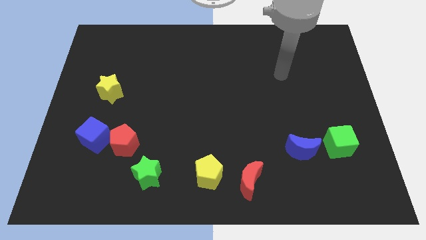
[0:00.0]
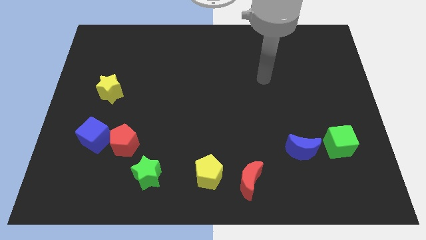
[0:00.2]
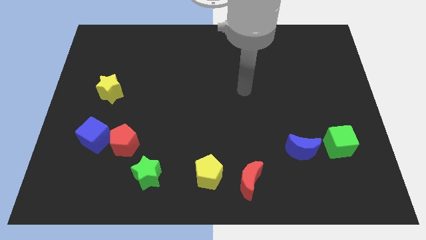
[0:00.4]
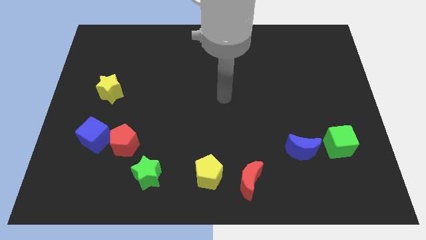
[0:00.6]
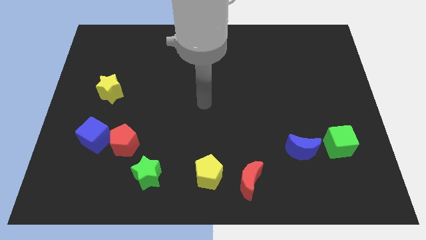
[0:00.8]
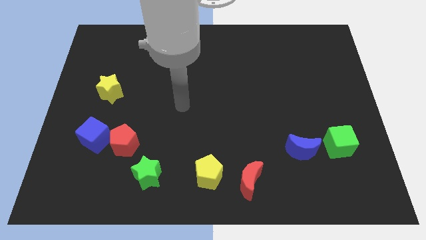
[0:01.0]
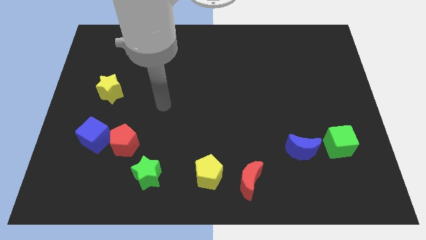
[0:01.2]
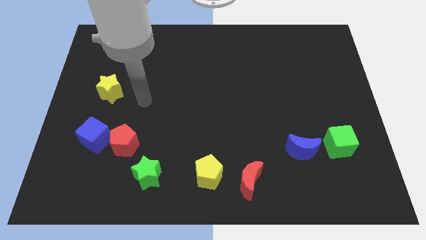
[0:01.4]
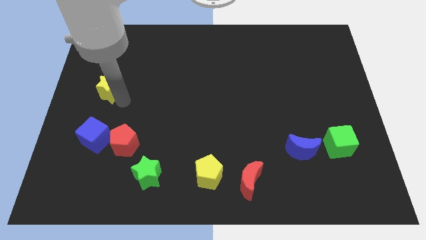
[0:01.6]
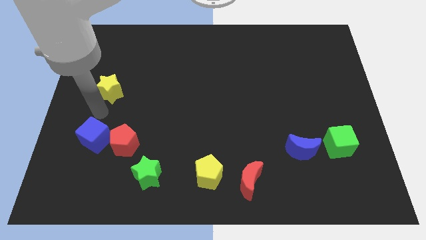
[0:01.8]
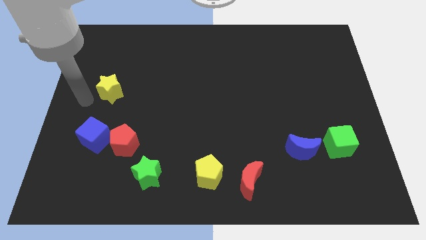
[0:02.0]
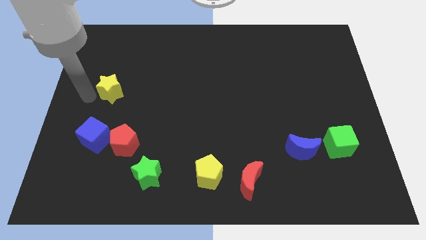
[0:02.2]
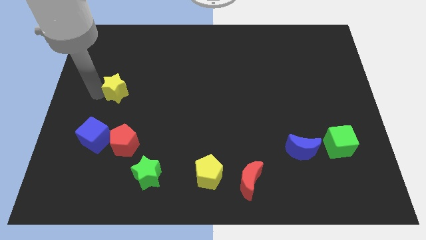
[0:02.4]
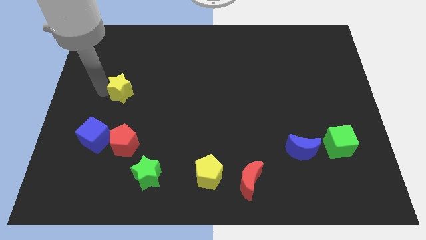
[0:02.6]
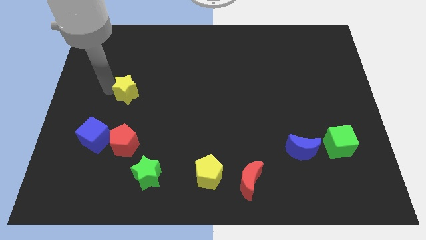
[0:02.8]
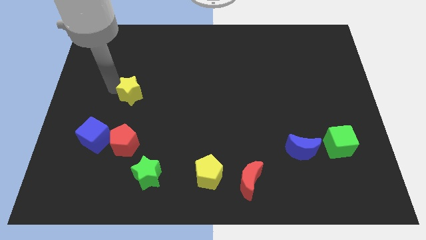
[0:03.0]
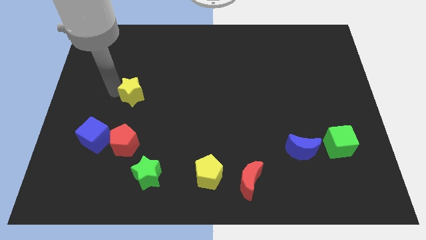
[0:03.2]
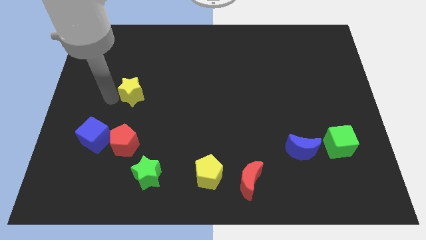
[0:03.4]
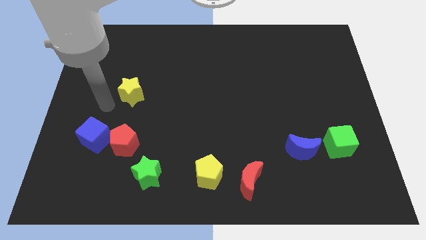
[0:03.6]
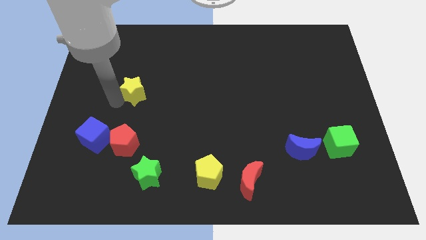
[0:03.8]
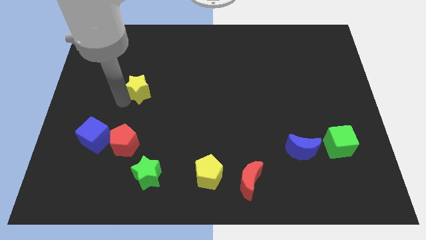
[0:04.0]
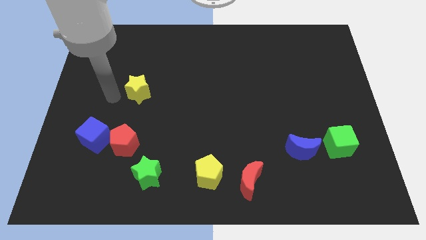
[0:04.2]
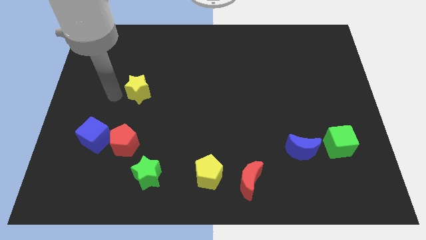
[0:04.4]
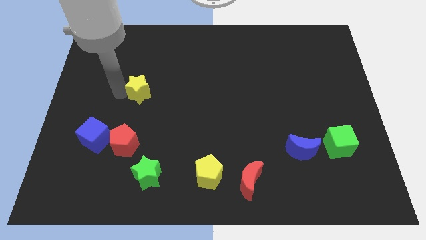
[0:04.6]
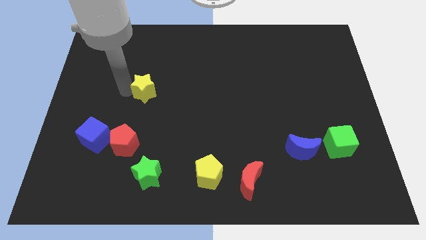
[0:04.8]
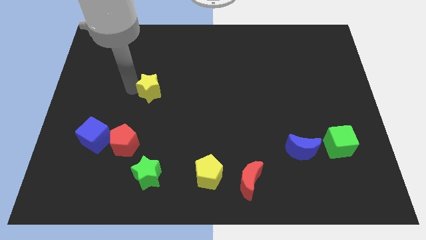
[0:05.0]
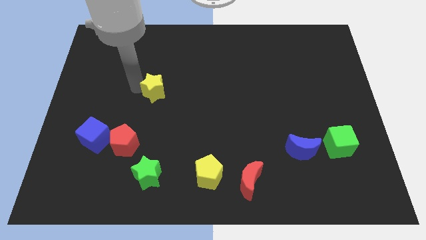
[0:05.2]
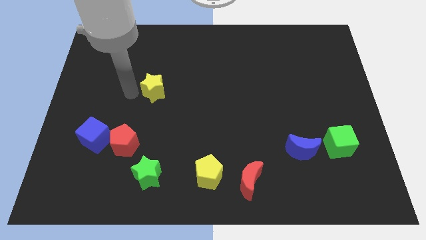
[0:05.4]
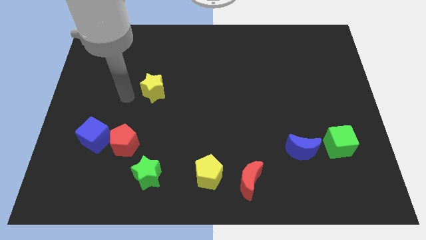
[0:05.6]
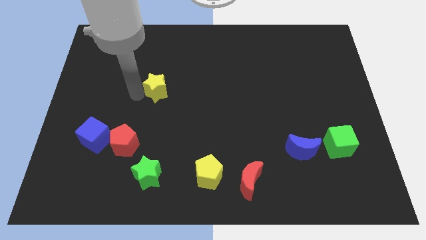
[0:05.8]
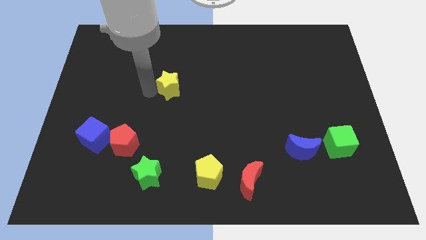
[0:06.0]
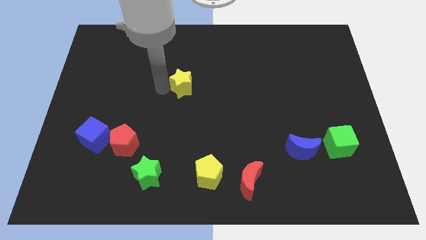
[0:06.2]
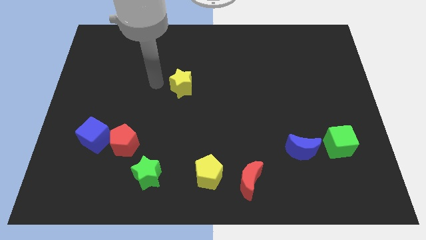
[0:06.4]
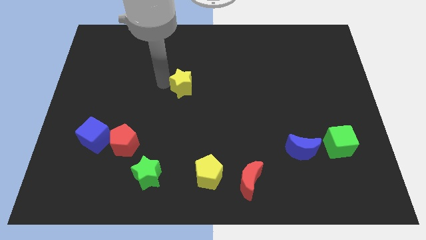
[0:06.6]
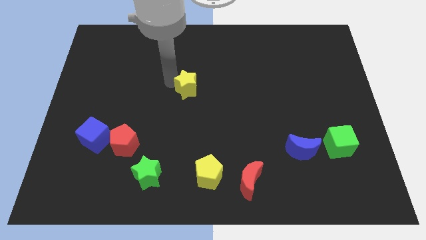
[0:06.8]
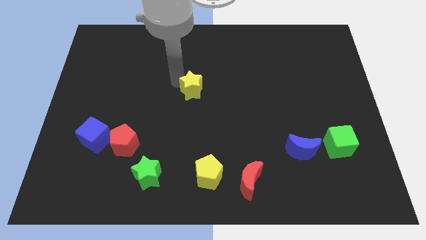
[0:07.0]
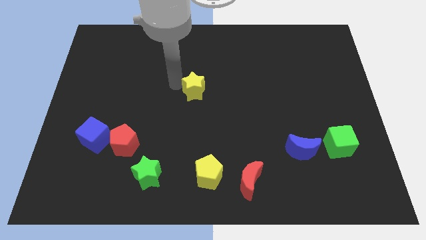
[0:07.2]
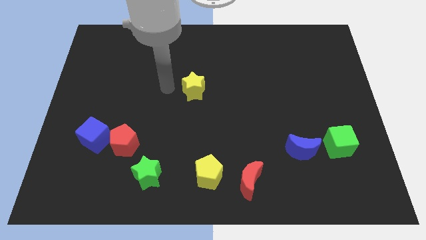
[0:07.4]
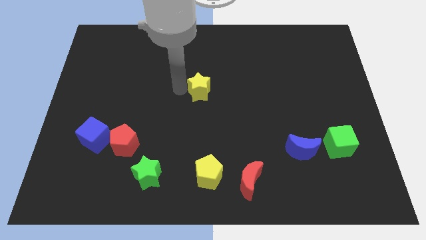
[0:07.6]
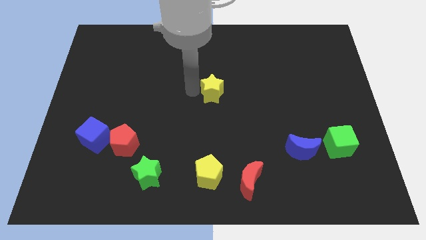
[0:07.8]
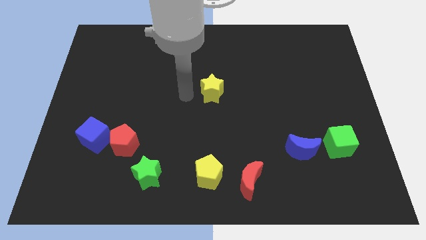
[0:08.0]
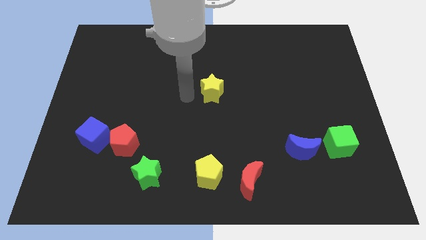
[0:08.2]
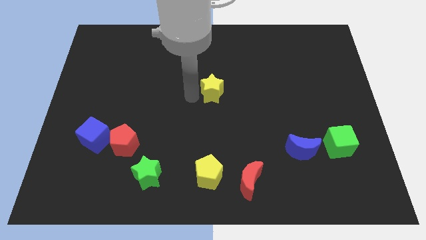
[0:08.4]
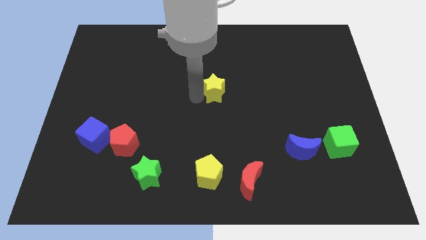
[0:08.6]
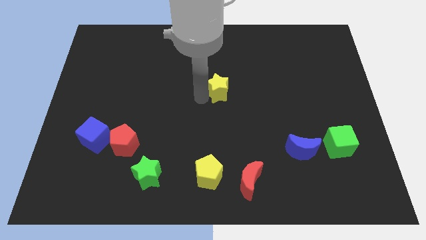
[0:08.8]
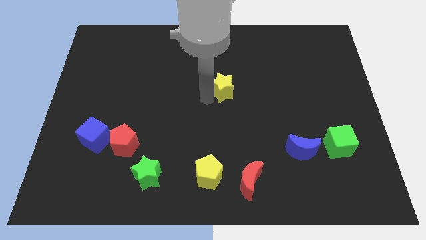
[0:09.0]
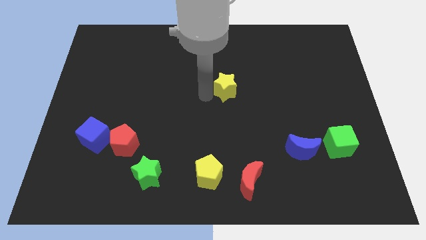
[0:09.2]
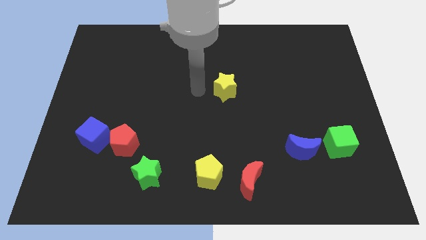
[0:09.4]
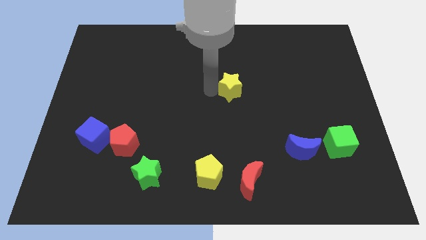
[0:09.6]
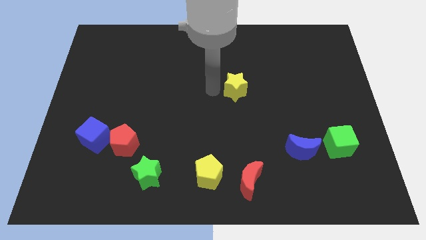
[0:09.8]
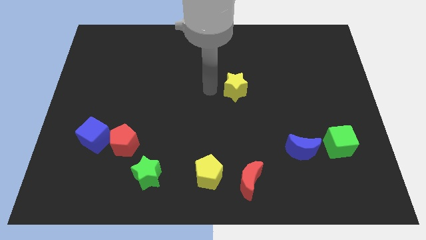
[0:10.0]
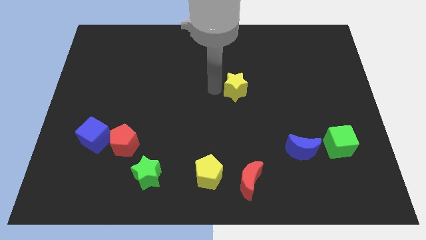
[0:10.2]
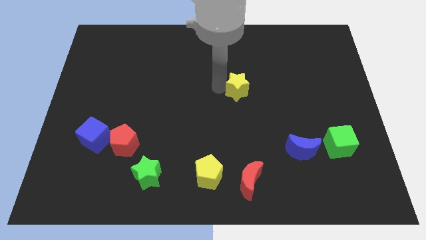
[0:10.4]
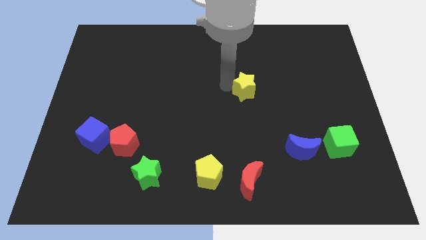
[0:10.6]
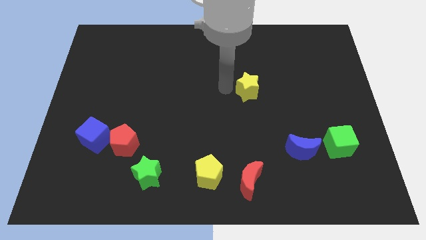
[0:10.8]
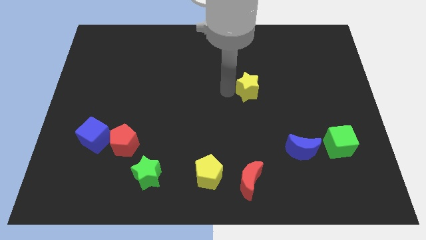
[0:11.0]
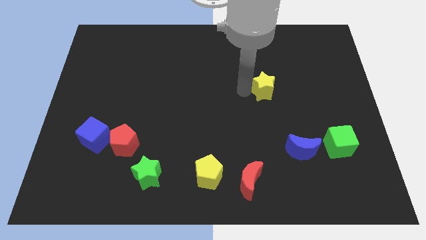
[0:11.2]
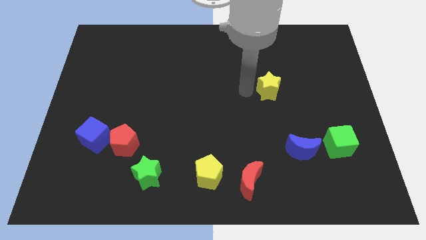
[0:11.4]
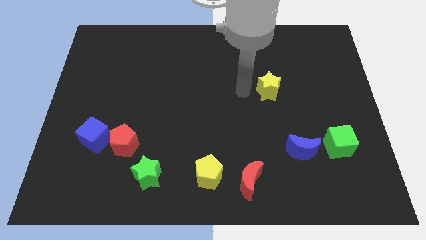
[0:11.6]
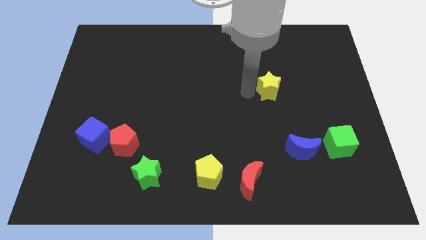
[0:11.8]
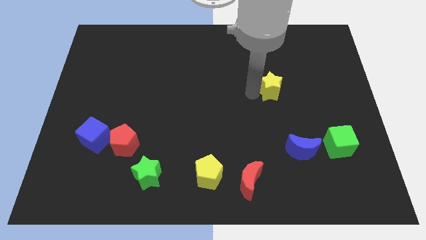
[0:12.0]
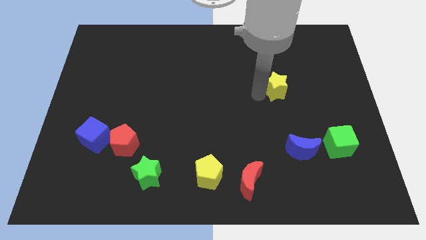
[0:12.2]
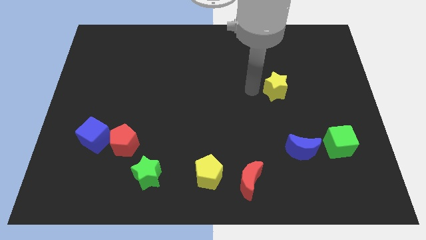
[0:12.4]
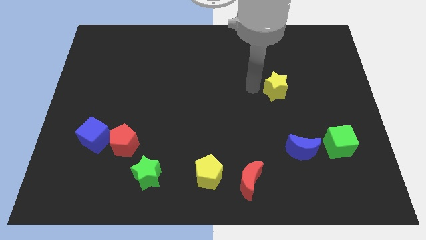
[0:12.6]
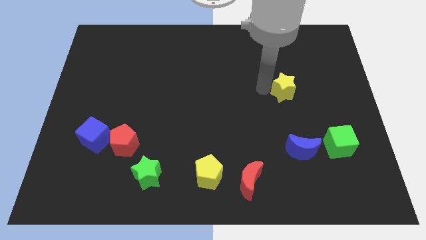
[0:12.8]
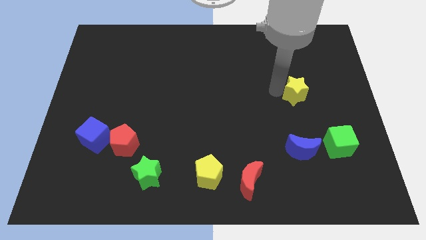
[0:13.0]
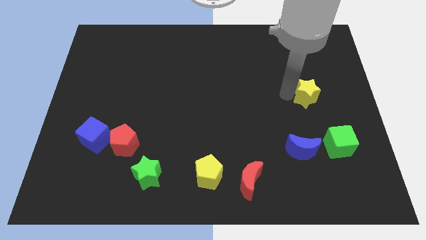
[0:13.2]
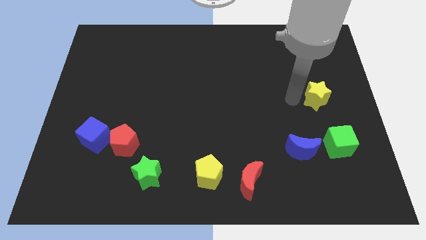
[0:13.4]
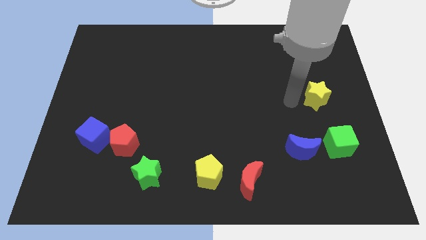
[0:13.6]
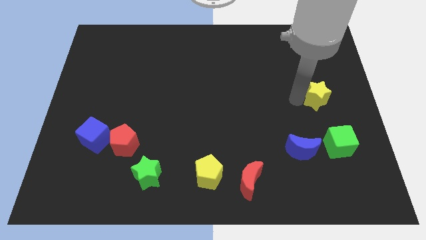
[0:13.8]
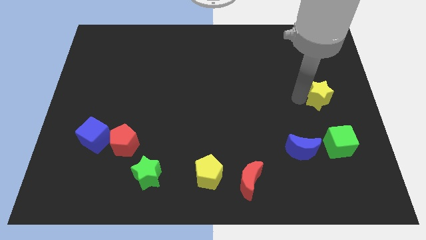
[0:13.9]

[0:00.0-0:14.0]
move the yellow star to the center right
